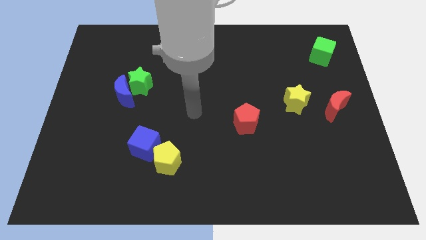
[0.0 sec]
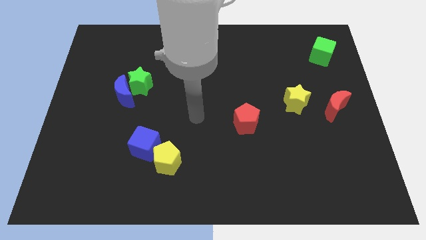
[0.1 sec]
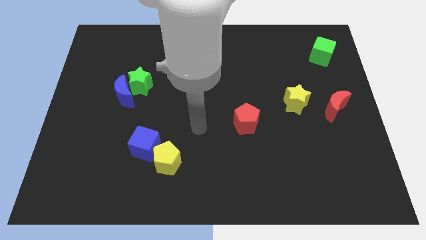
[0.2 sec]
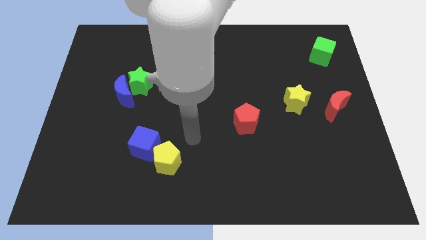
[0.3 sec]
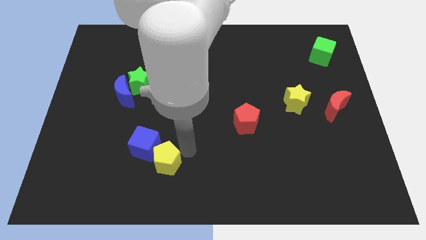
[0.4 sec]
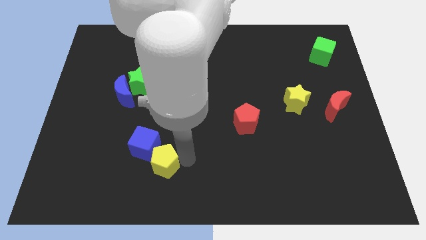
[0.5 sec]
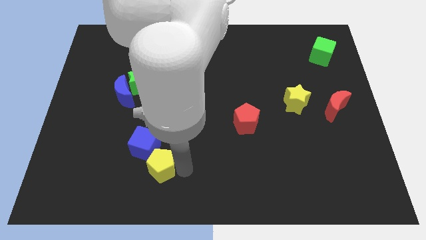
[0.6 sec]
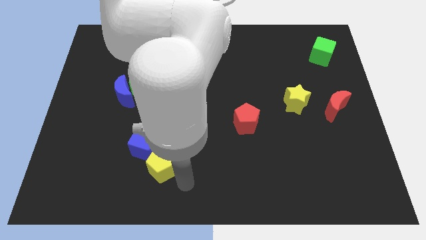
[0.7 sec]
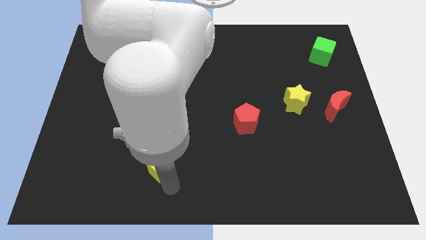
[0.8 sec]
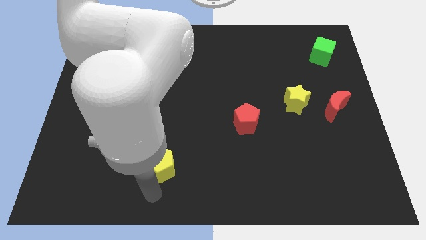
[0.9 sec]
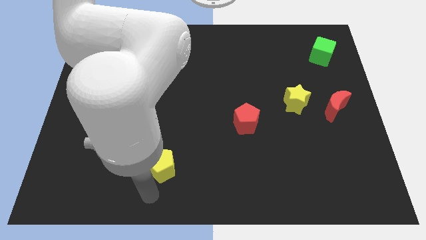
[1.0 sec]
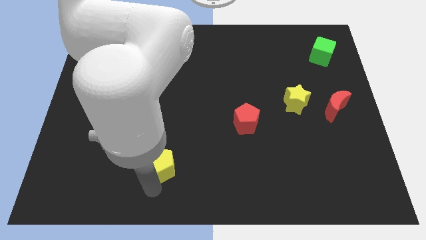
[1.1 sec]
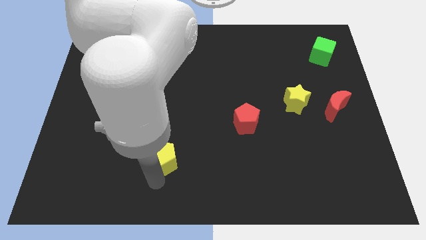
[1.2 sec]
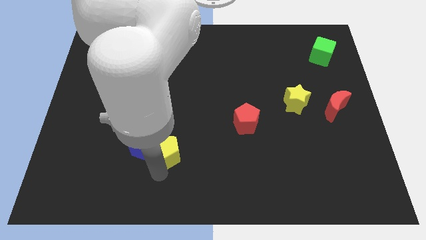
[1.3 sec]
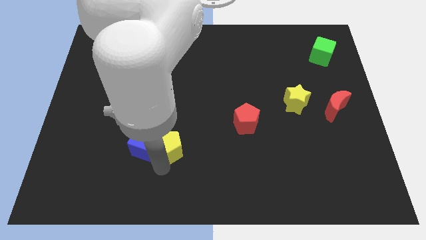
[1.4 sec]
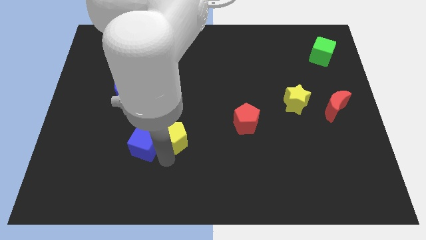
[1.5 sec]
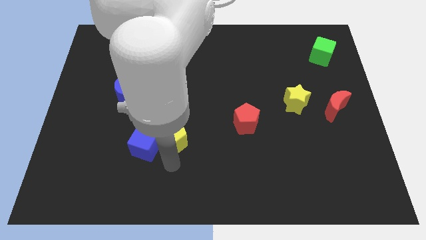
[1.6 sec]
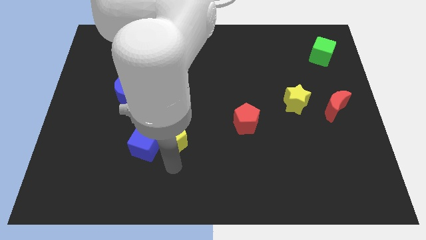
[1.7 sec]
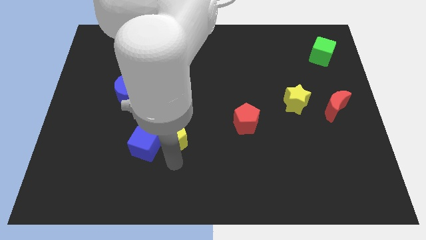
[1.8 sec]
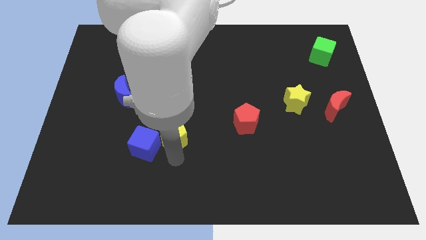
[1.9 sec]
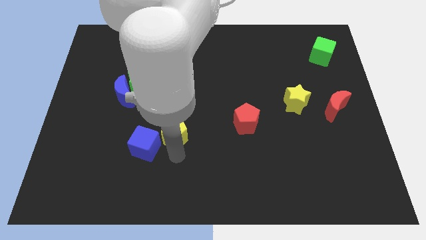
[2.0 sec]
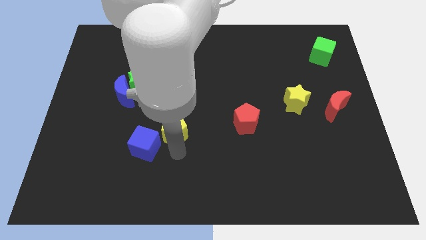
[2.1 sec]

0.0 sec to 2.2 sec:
push the yellow pentagon upwards a bit

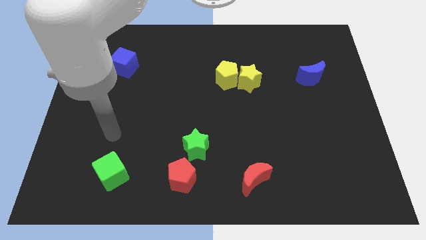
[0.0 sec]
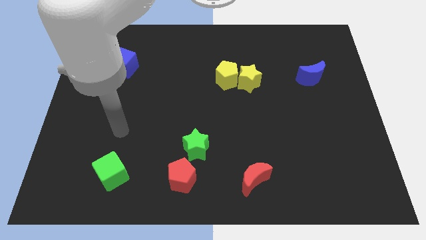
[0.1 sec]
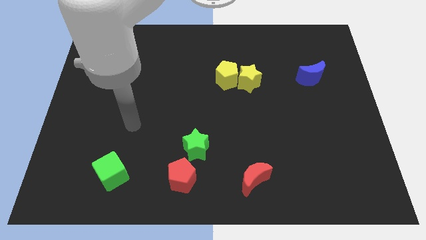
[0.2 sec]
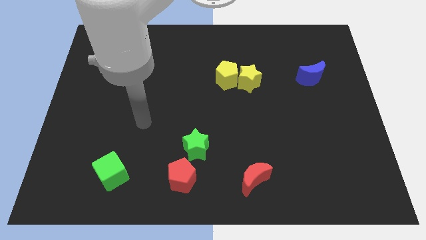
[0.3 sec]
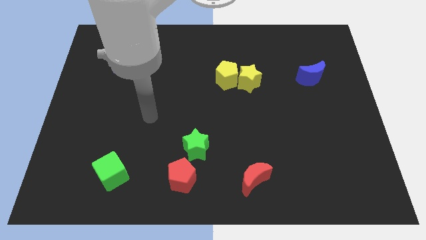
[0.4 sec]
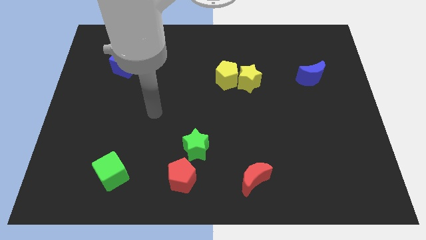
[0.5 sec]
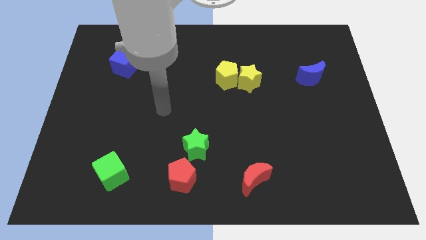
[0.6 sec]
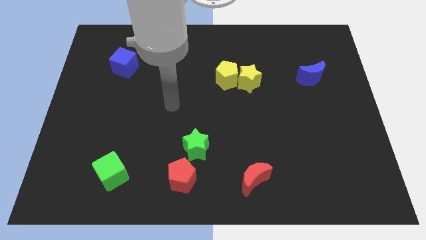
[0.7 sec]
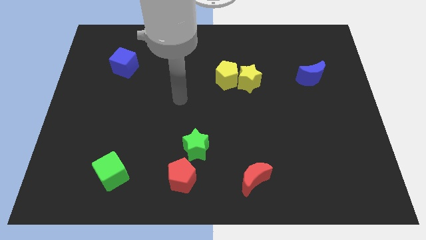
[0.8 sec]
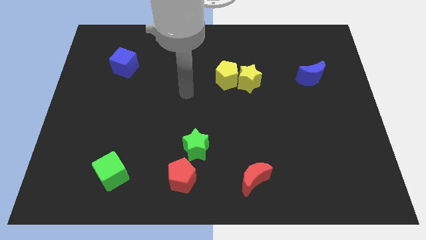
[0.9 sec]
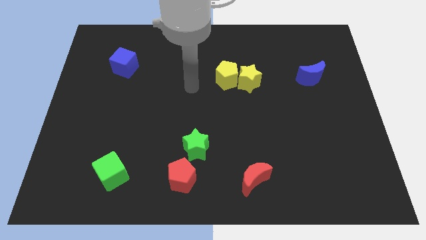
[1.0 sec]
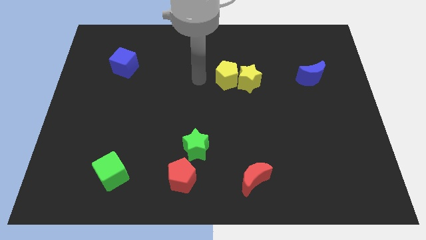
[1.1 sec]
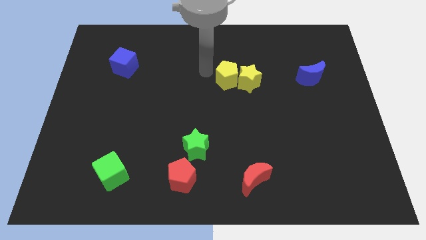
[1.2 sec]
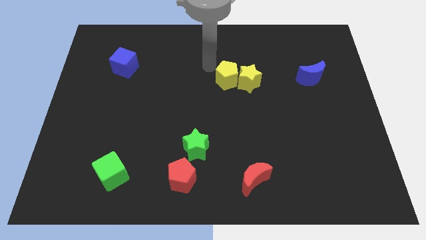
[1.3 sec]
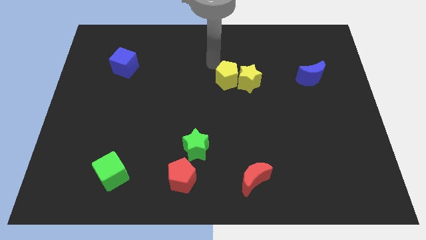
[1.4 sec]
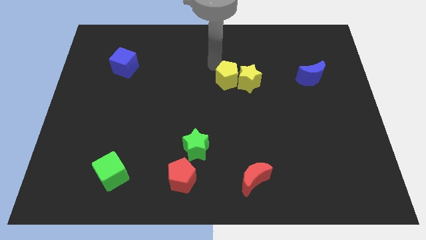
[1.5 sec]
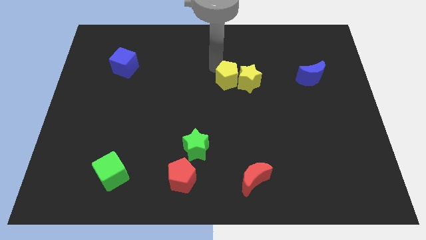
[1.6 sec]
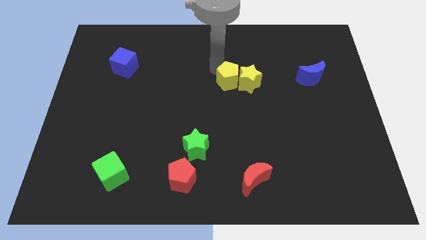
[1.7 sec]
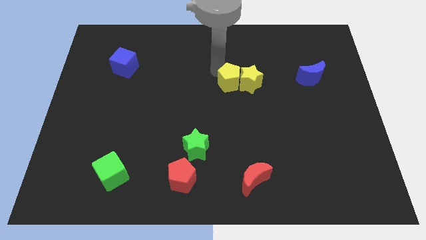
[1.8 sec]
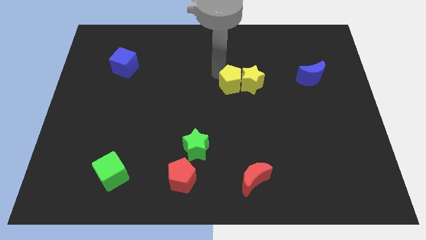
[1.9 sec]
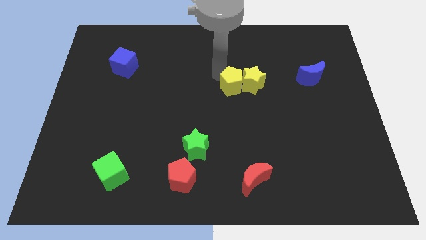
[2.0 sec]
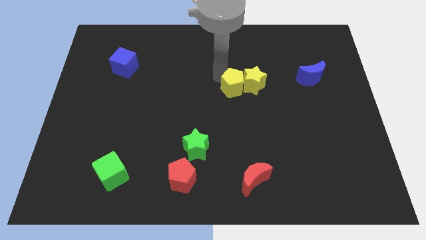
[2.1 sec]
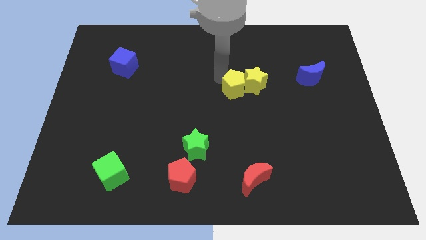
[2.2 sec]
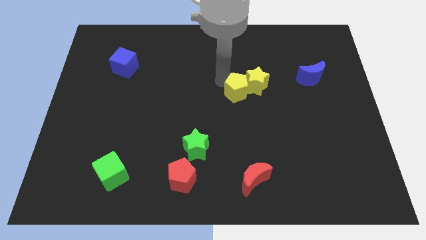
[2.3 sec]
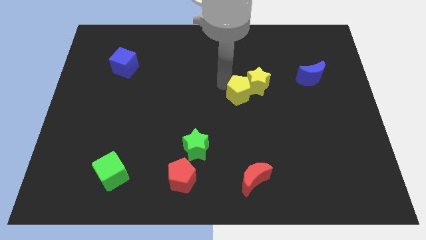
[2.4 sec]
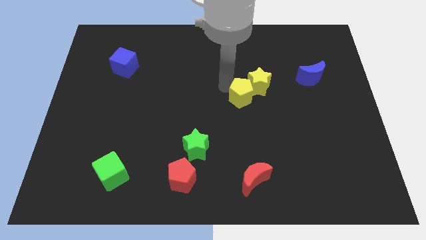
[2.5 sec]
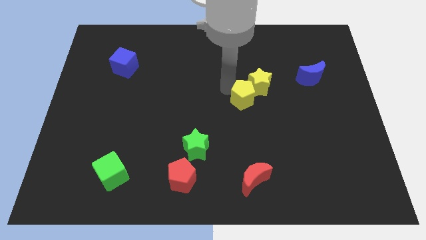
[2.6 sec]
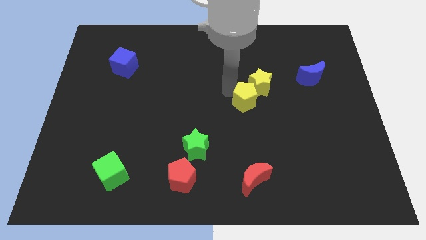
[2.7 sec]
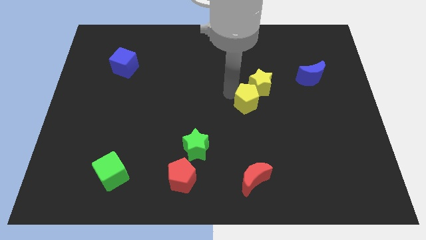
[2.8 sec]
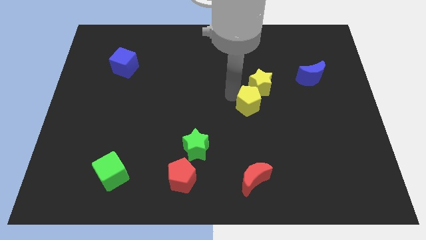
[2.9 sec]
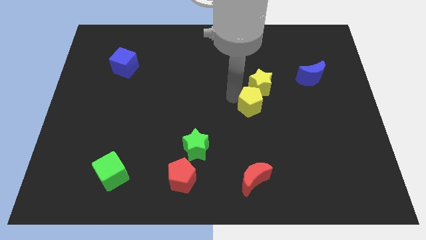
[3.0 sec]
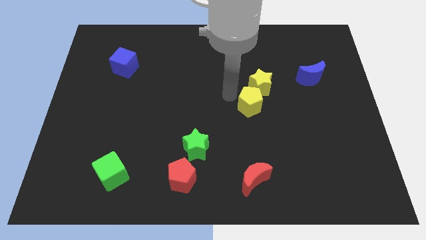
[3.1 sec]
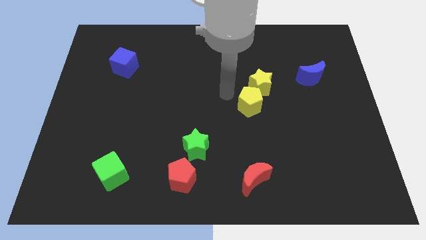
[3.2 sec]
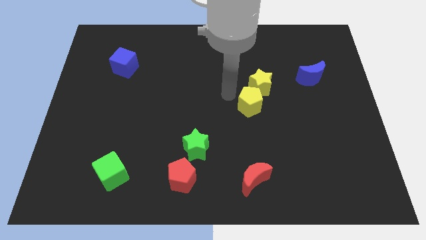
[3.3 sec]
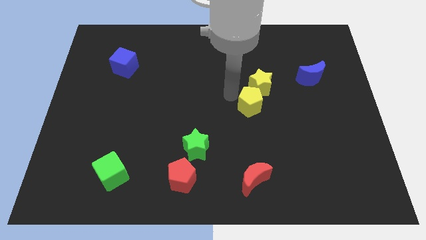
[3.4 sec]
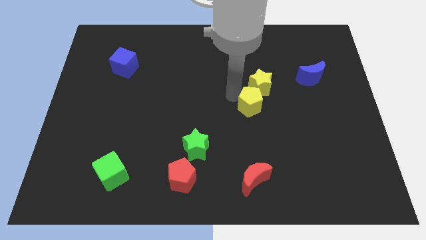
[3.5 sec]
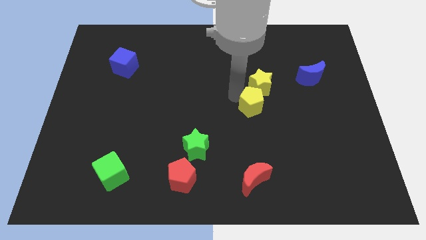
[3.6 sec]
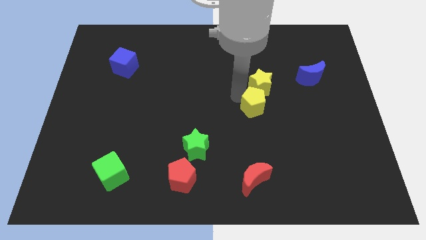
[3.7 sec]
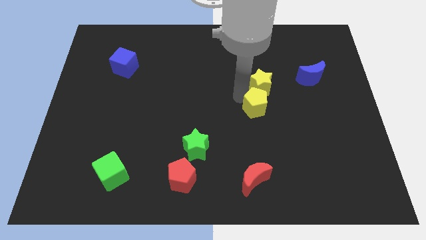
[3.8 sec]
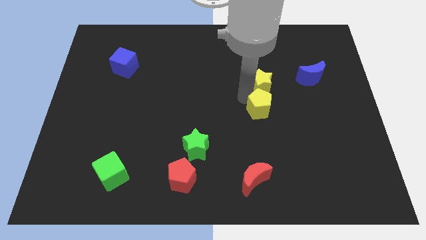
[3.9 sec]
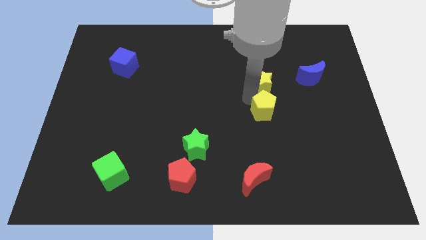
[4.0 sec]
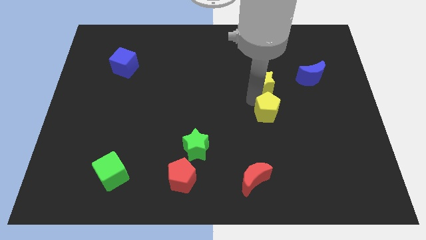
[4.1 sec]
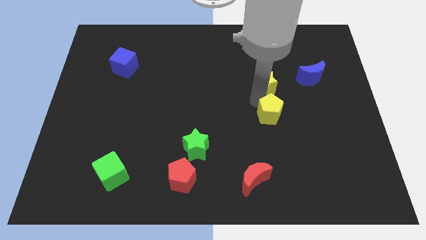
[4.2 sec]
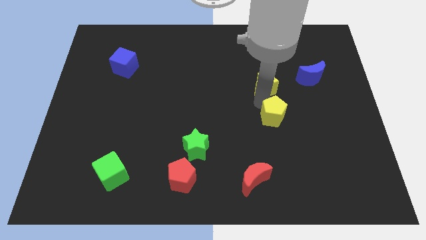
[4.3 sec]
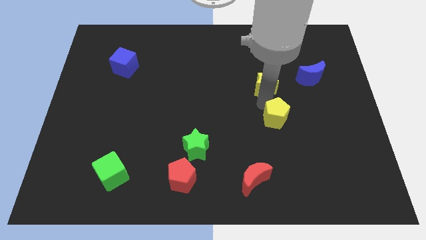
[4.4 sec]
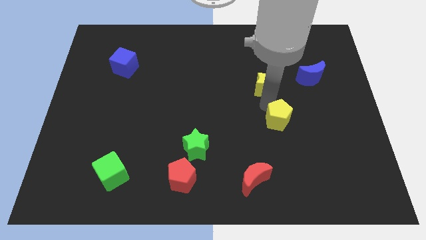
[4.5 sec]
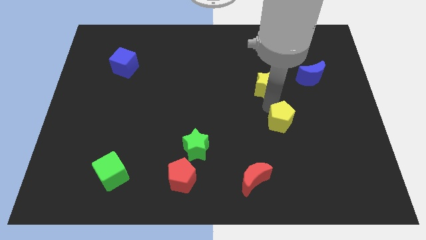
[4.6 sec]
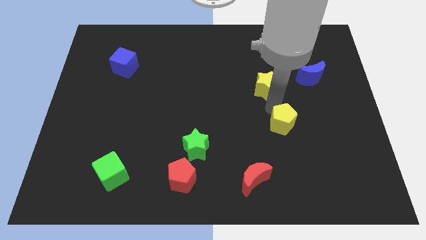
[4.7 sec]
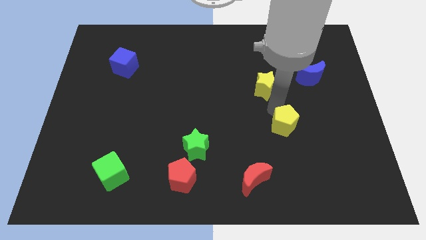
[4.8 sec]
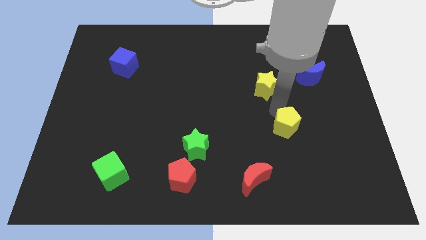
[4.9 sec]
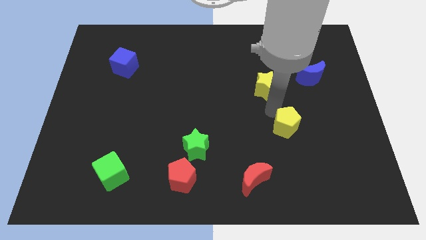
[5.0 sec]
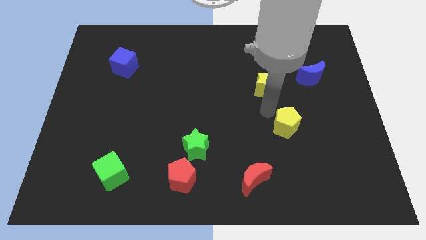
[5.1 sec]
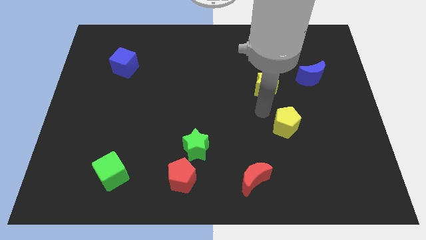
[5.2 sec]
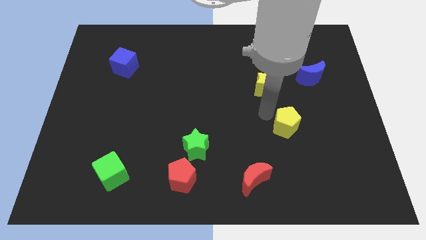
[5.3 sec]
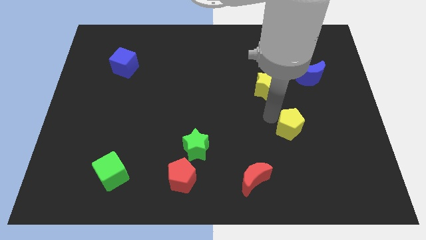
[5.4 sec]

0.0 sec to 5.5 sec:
move the yellow pentagon diagonally downwards and right

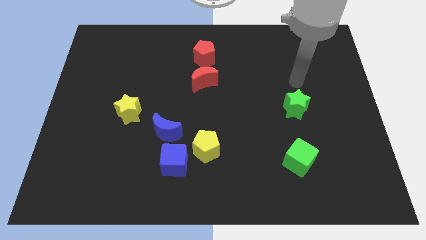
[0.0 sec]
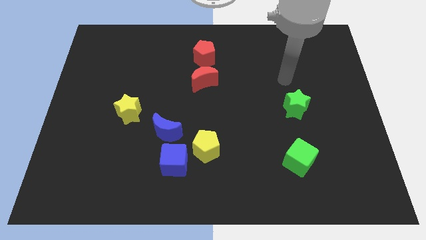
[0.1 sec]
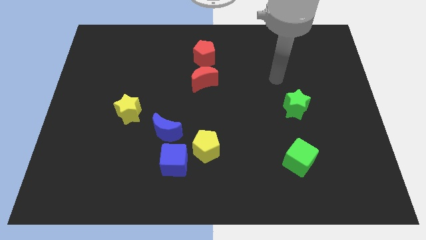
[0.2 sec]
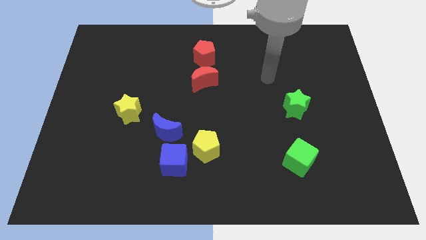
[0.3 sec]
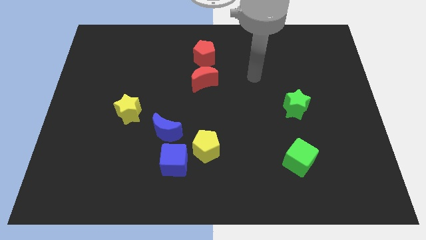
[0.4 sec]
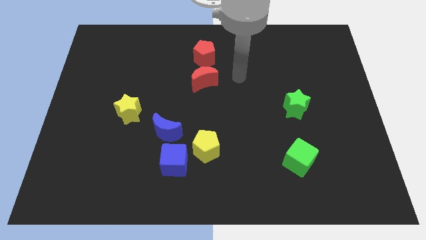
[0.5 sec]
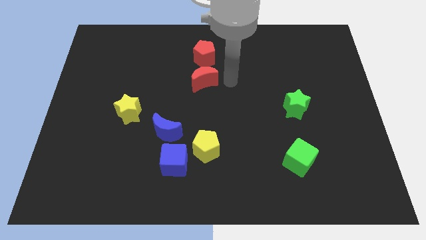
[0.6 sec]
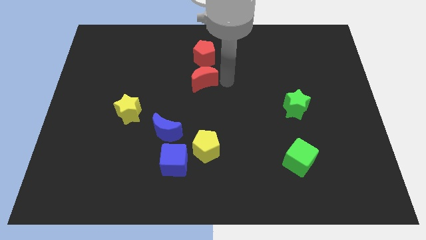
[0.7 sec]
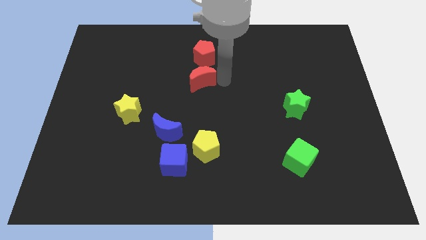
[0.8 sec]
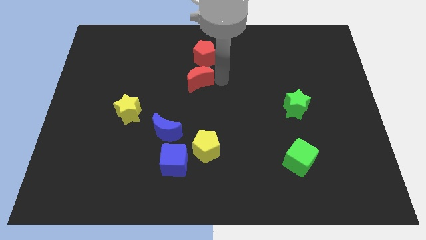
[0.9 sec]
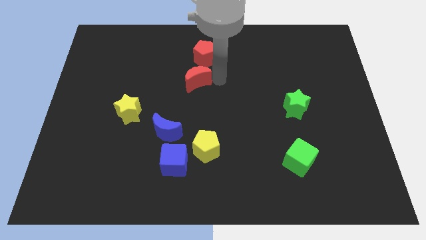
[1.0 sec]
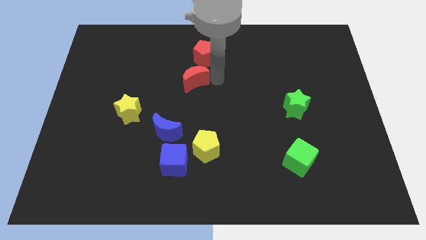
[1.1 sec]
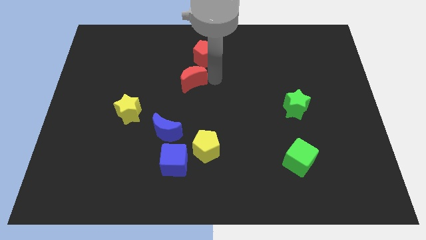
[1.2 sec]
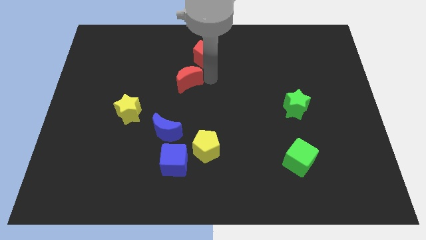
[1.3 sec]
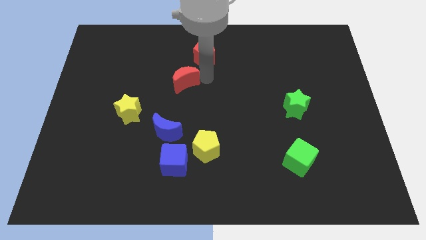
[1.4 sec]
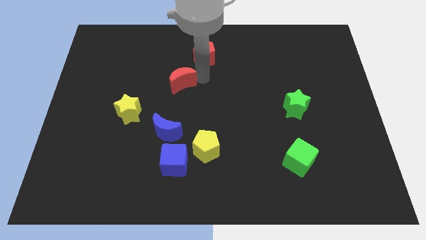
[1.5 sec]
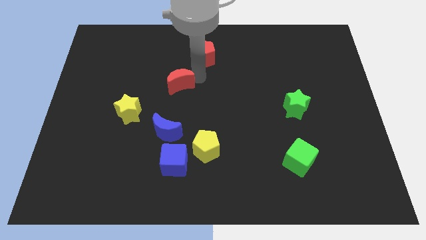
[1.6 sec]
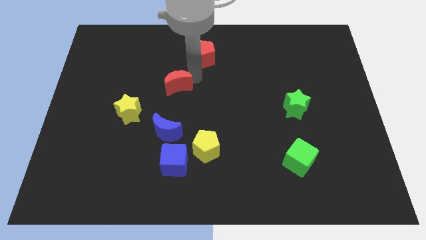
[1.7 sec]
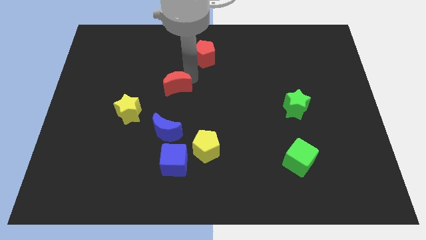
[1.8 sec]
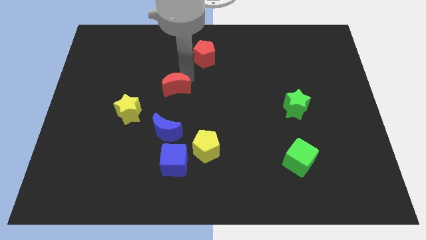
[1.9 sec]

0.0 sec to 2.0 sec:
slightly slide the red moon left
